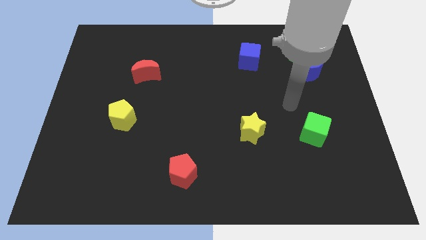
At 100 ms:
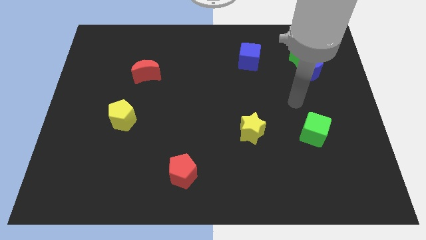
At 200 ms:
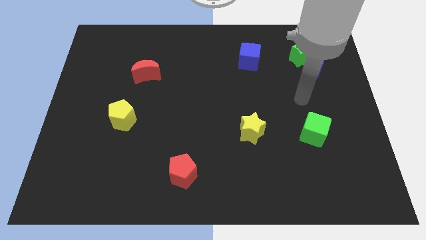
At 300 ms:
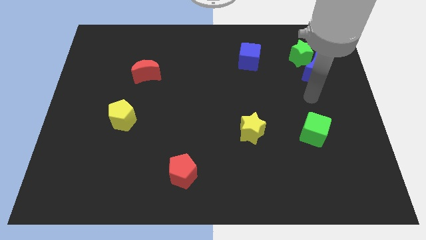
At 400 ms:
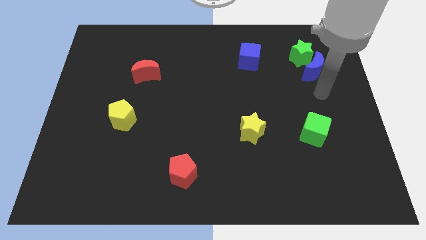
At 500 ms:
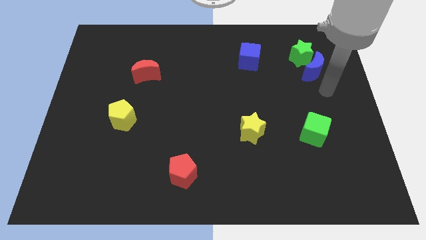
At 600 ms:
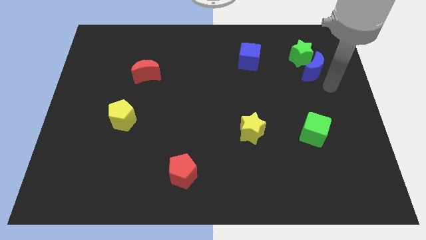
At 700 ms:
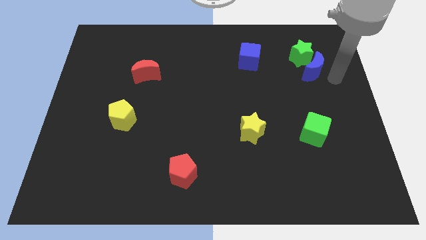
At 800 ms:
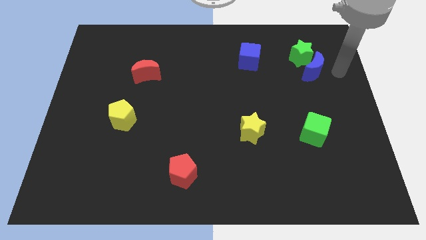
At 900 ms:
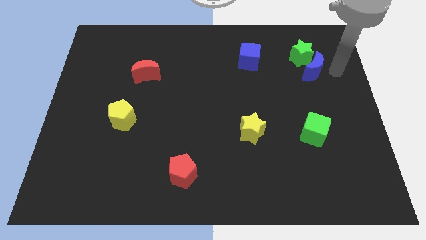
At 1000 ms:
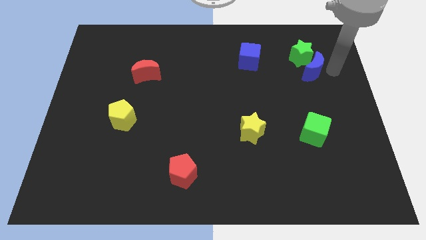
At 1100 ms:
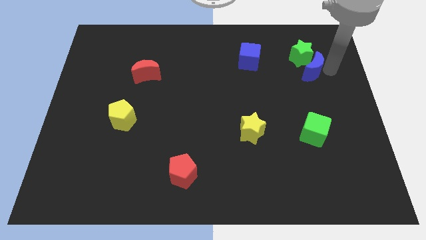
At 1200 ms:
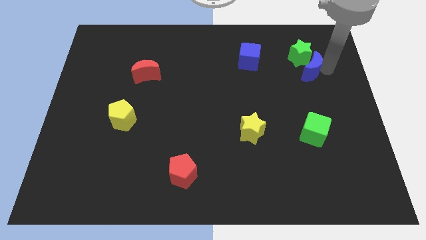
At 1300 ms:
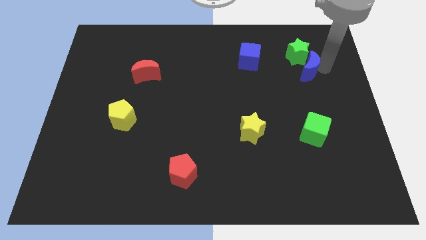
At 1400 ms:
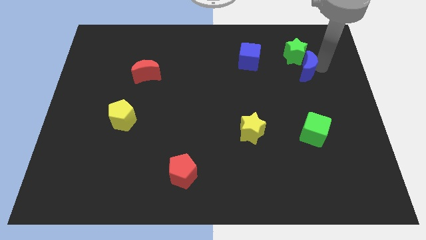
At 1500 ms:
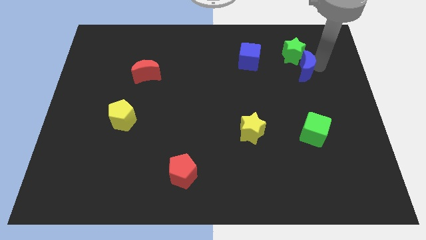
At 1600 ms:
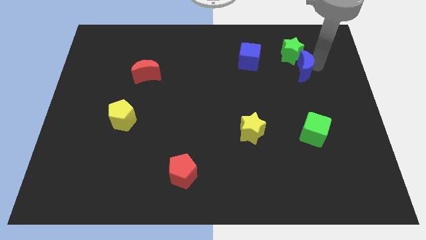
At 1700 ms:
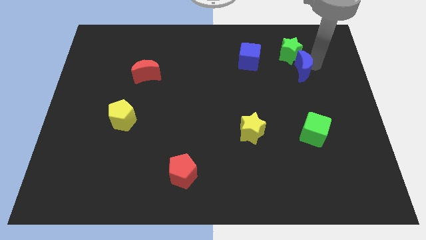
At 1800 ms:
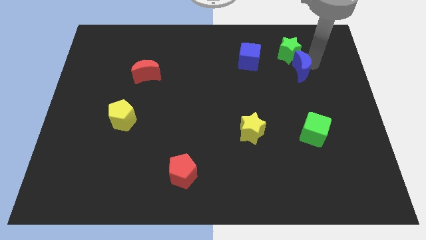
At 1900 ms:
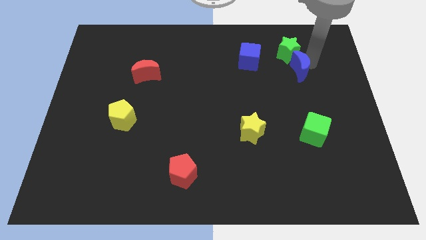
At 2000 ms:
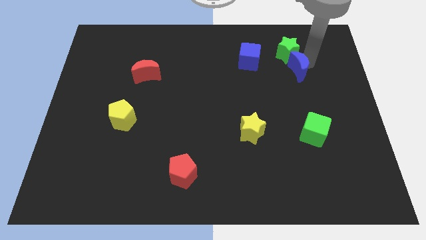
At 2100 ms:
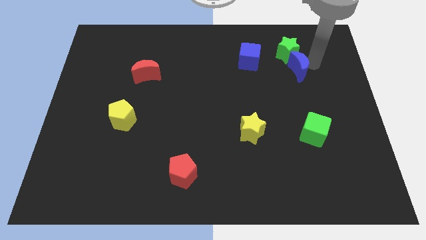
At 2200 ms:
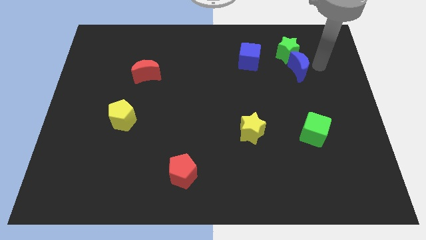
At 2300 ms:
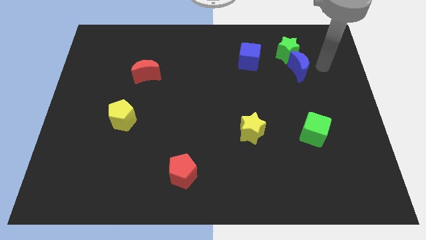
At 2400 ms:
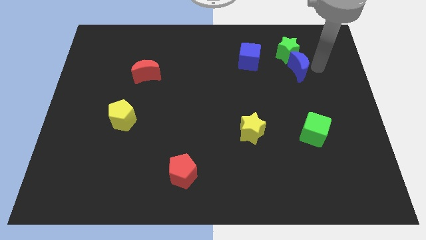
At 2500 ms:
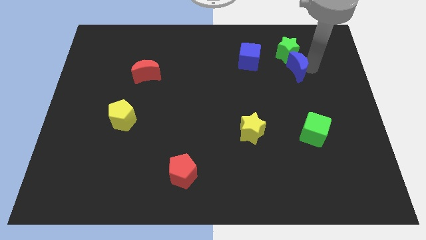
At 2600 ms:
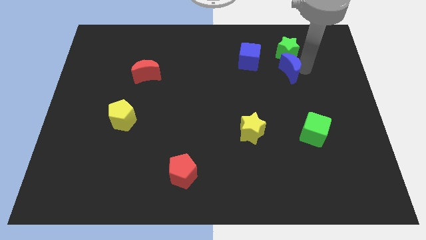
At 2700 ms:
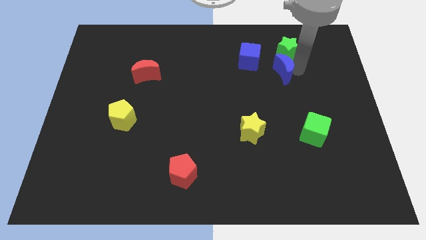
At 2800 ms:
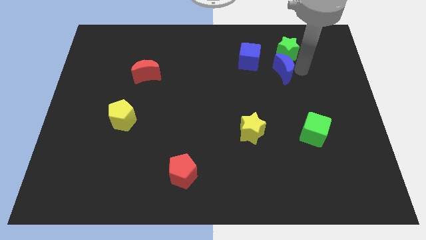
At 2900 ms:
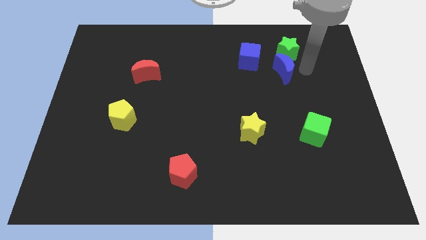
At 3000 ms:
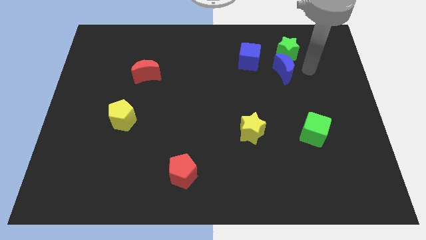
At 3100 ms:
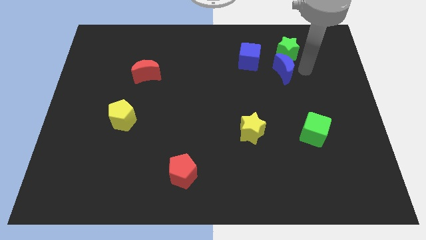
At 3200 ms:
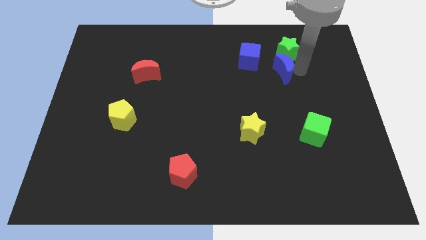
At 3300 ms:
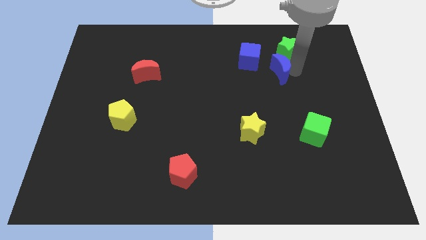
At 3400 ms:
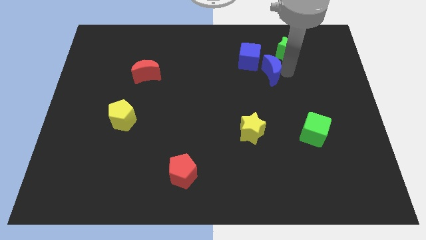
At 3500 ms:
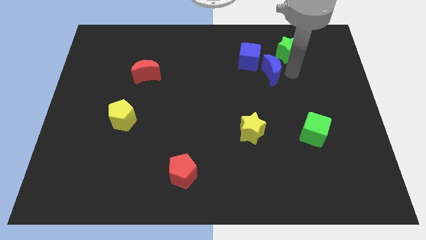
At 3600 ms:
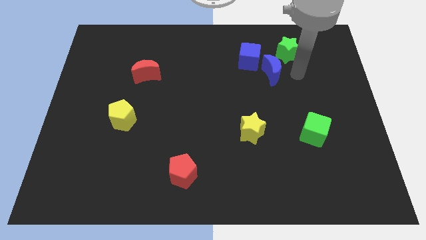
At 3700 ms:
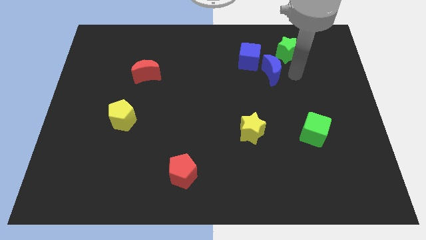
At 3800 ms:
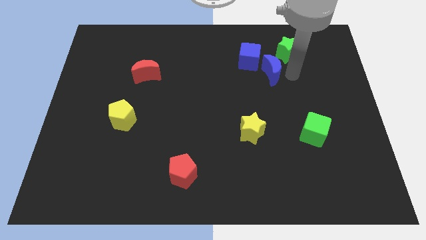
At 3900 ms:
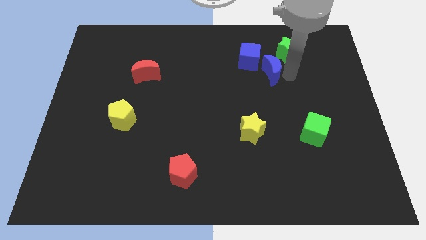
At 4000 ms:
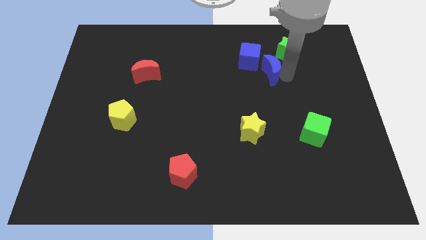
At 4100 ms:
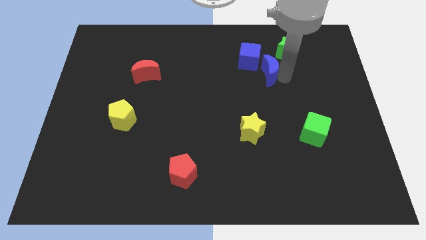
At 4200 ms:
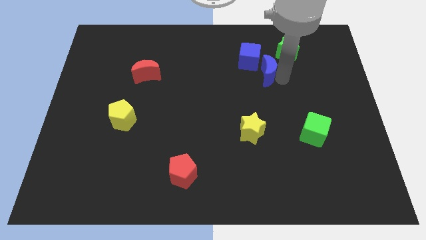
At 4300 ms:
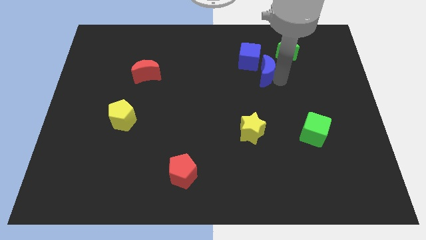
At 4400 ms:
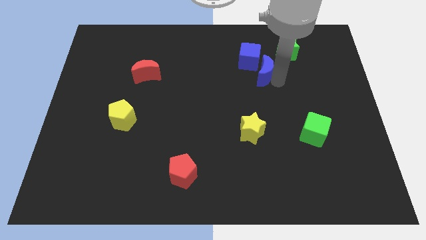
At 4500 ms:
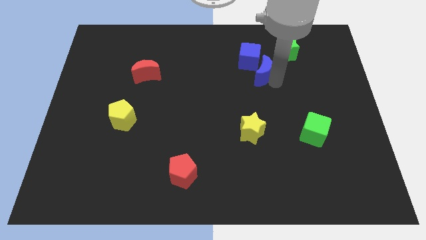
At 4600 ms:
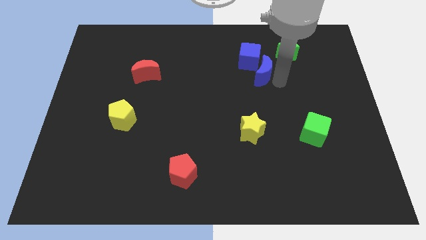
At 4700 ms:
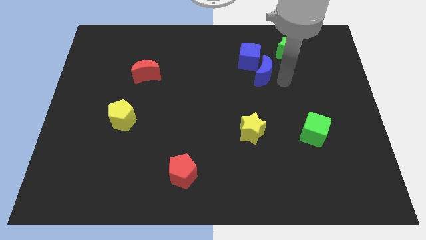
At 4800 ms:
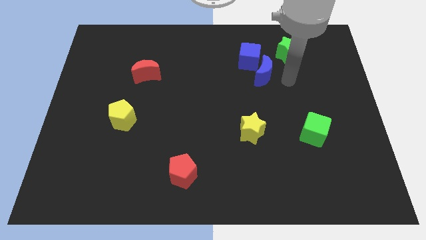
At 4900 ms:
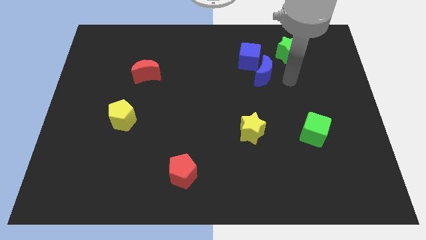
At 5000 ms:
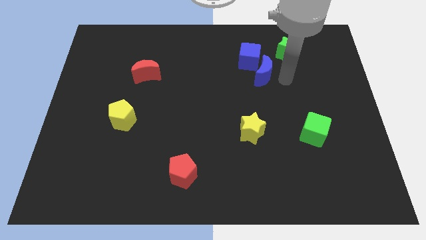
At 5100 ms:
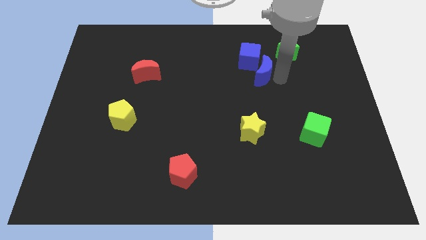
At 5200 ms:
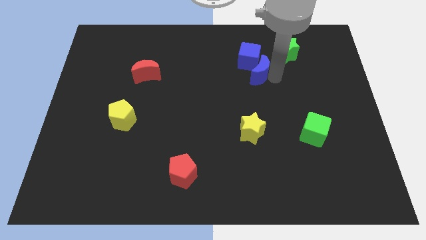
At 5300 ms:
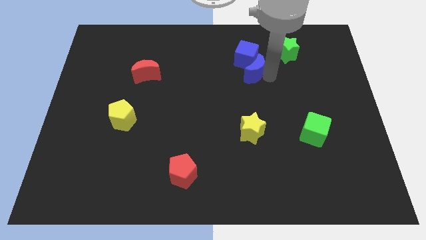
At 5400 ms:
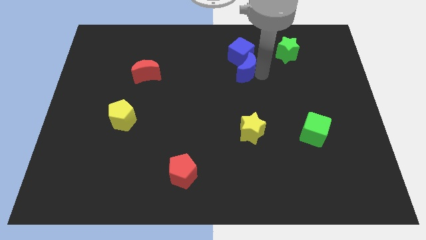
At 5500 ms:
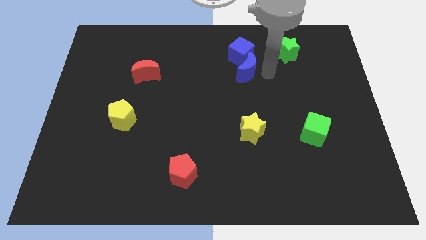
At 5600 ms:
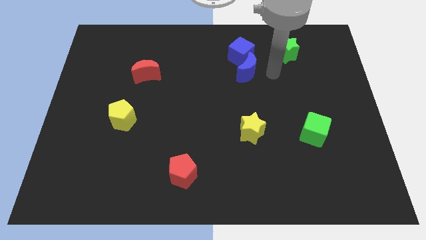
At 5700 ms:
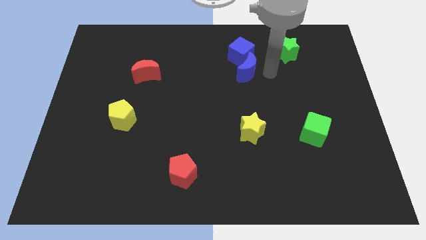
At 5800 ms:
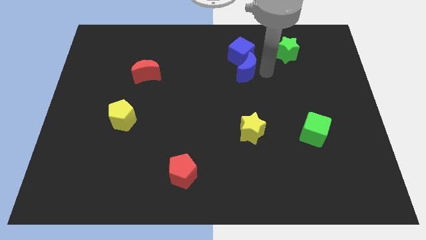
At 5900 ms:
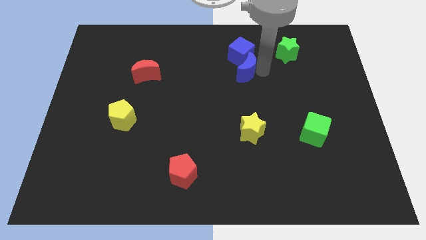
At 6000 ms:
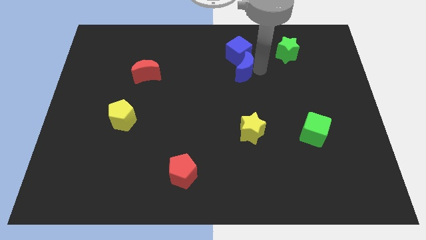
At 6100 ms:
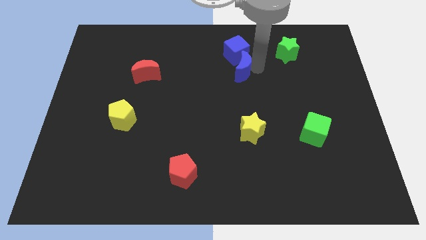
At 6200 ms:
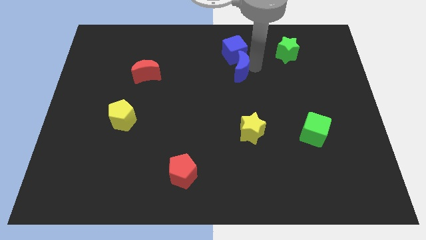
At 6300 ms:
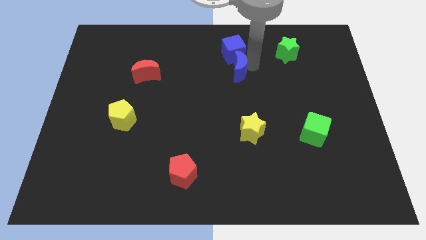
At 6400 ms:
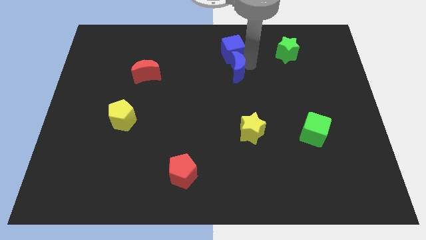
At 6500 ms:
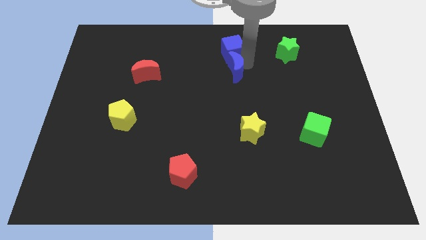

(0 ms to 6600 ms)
push the blue moon left

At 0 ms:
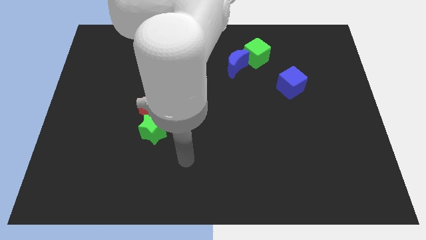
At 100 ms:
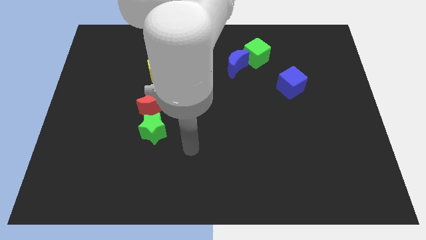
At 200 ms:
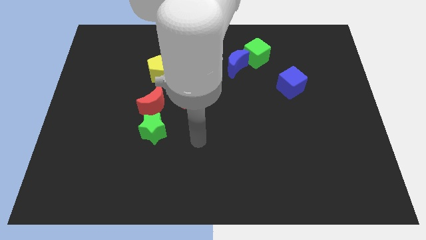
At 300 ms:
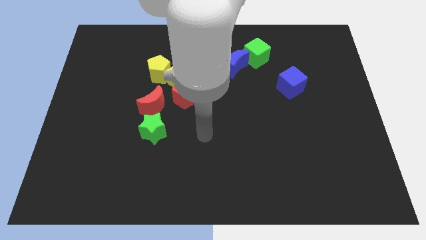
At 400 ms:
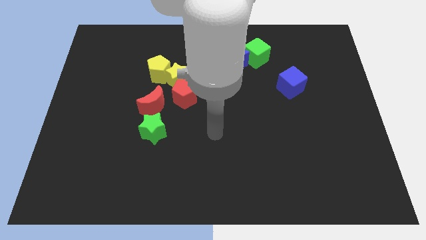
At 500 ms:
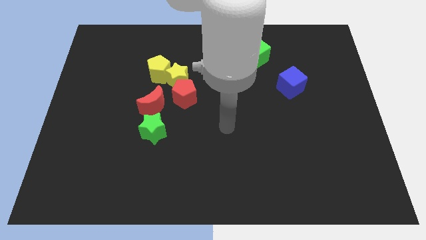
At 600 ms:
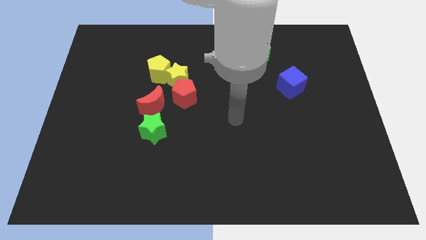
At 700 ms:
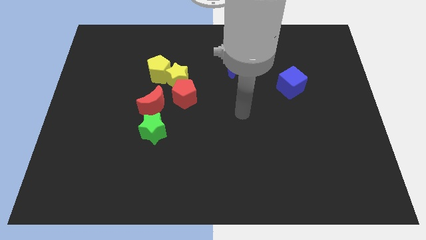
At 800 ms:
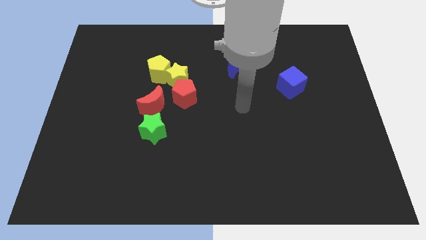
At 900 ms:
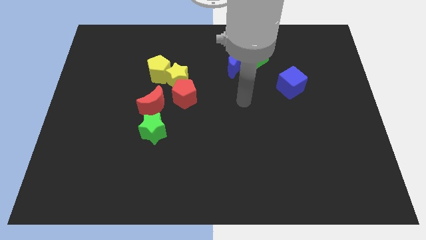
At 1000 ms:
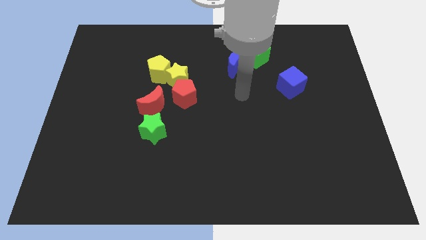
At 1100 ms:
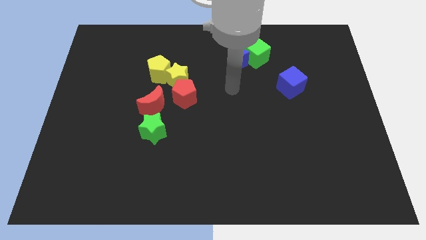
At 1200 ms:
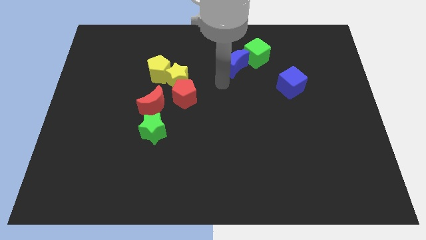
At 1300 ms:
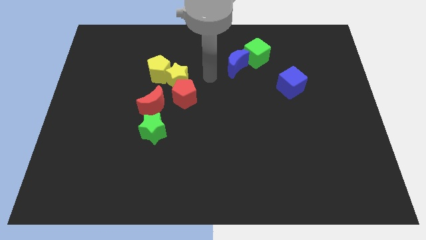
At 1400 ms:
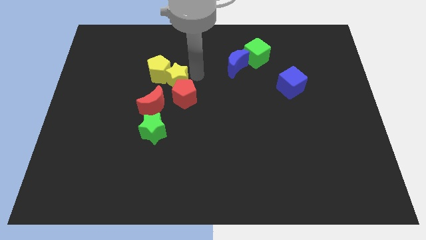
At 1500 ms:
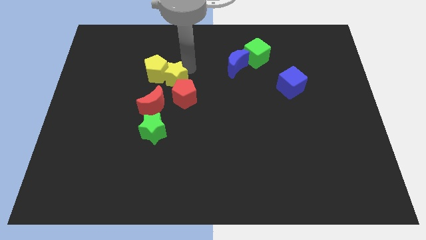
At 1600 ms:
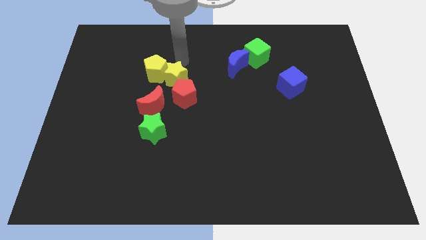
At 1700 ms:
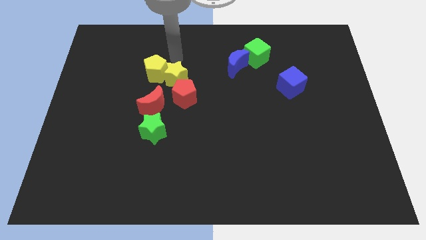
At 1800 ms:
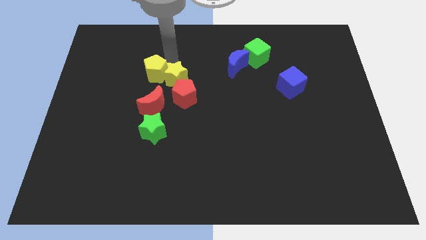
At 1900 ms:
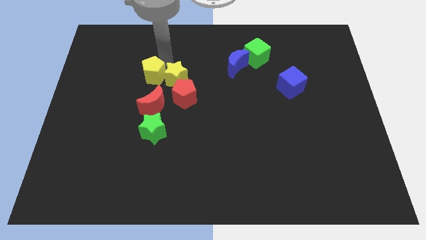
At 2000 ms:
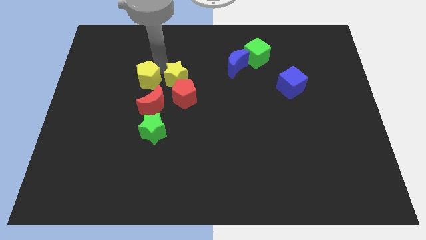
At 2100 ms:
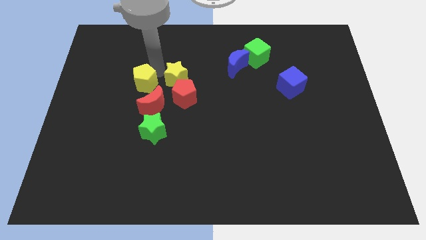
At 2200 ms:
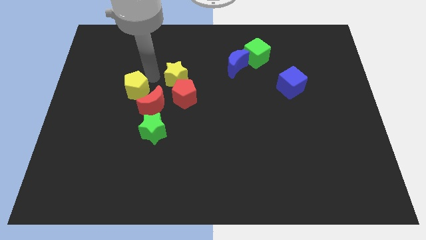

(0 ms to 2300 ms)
slightly push the yellow pentagon down and to the left
